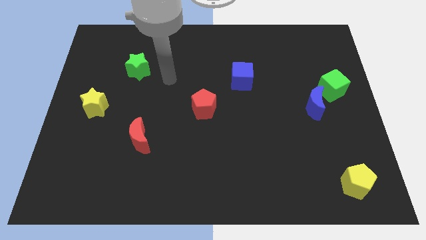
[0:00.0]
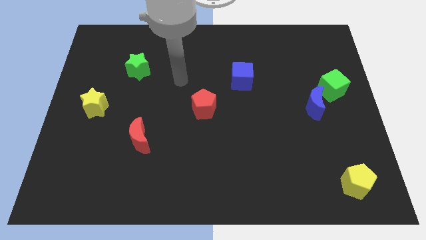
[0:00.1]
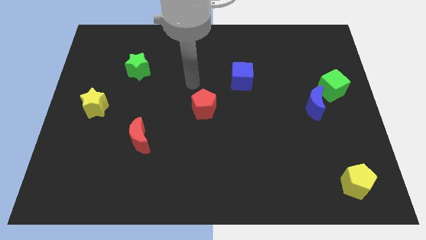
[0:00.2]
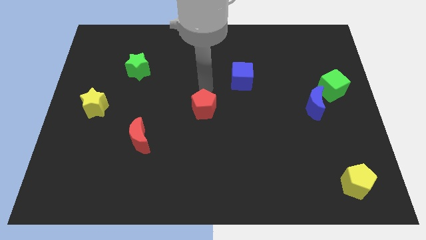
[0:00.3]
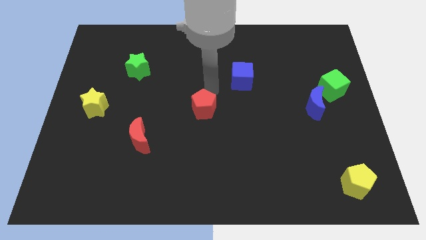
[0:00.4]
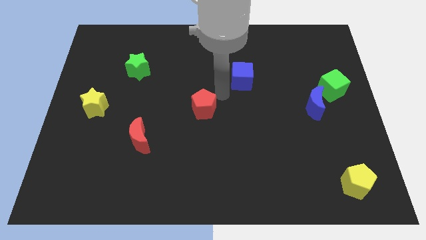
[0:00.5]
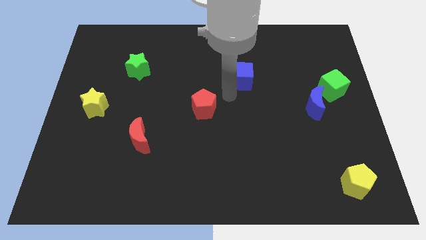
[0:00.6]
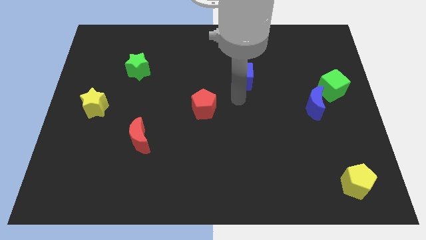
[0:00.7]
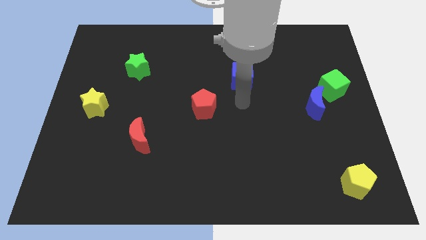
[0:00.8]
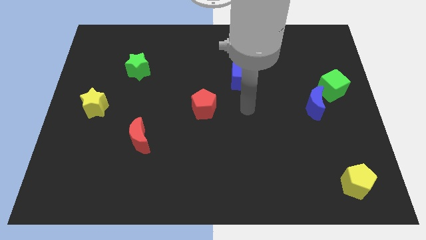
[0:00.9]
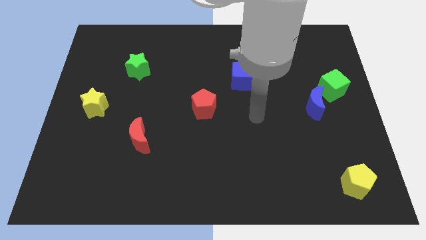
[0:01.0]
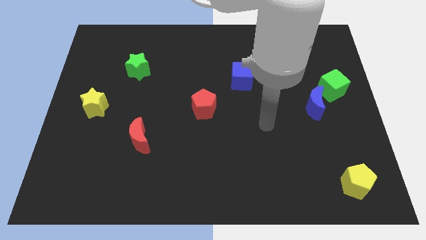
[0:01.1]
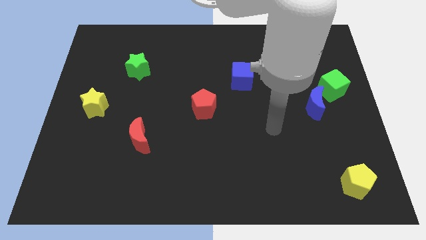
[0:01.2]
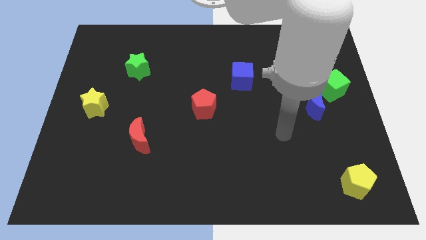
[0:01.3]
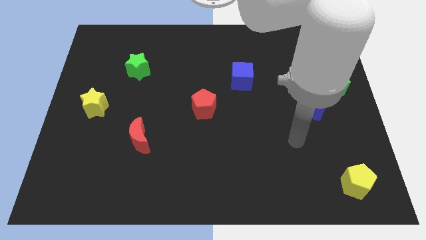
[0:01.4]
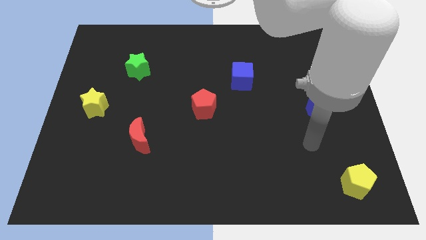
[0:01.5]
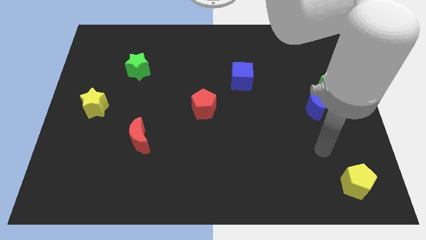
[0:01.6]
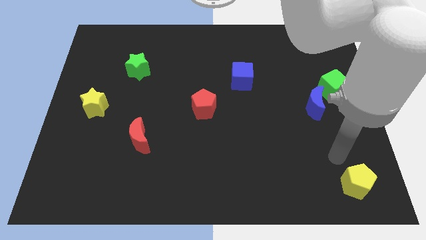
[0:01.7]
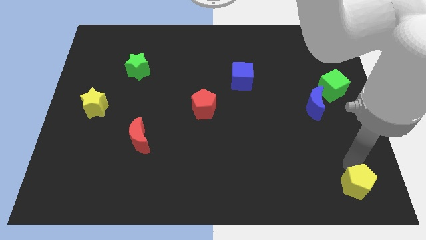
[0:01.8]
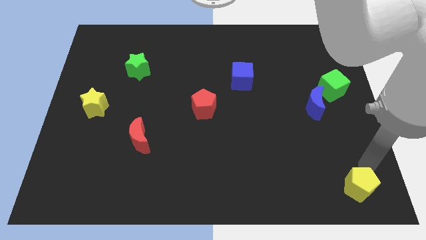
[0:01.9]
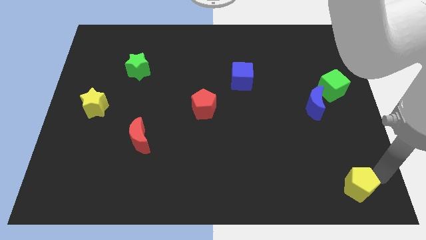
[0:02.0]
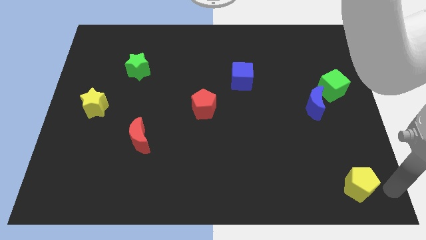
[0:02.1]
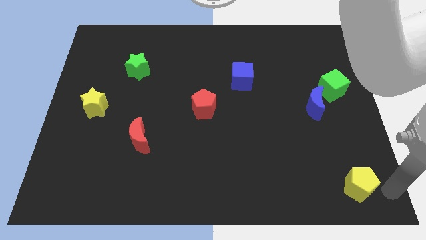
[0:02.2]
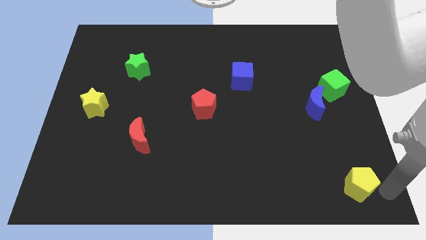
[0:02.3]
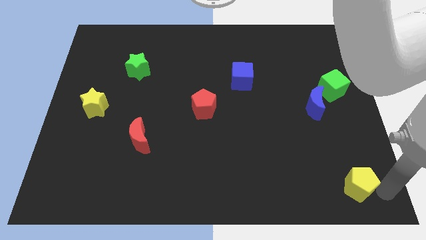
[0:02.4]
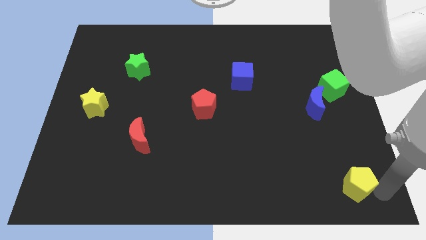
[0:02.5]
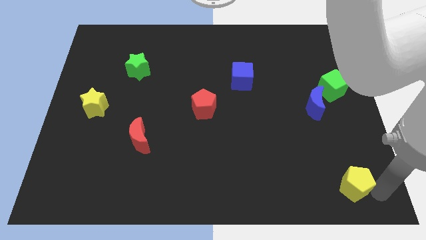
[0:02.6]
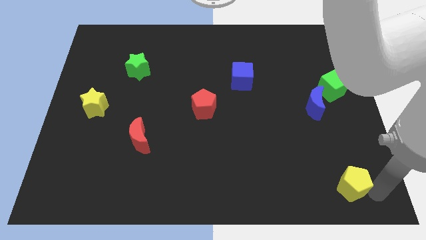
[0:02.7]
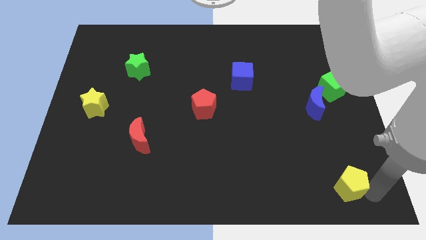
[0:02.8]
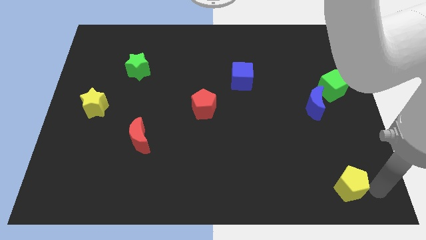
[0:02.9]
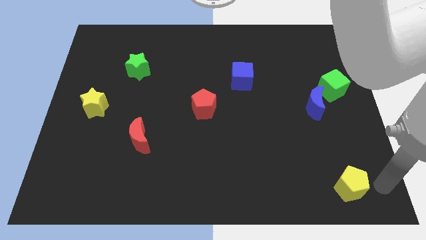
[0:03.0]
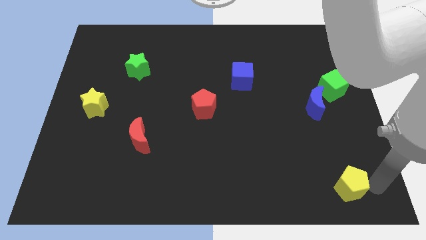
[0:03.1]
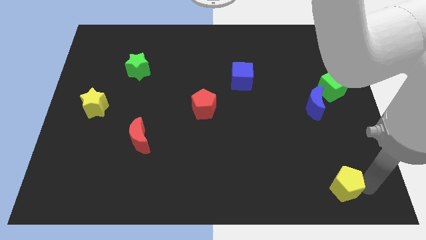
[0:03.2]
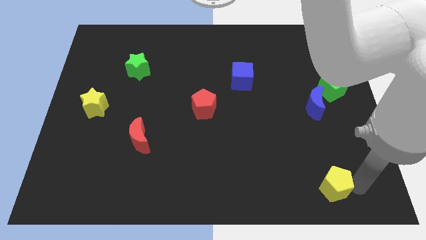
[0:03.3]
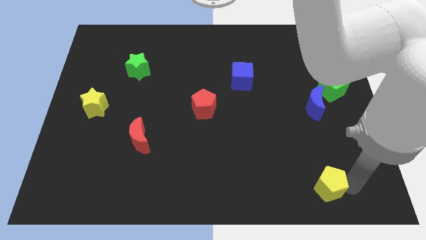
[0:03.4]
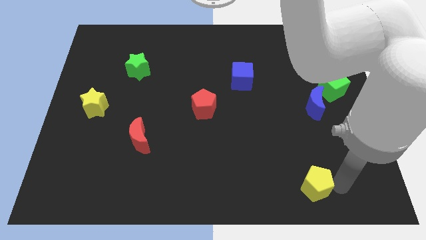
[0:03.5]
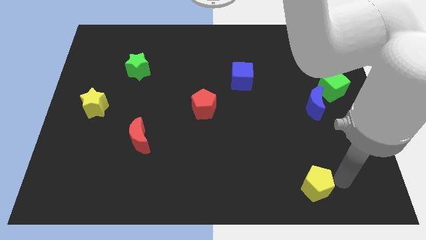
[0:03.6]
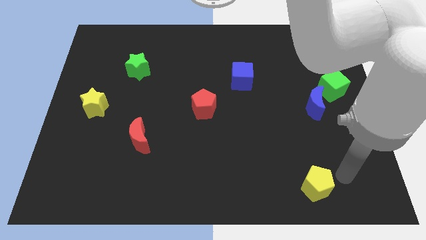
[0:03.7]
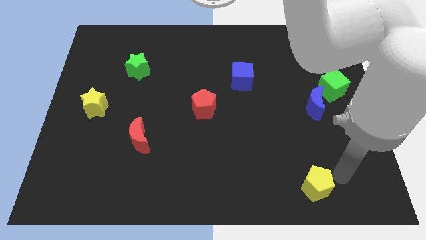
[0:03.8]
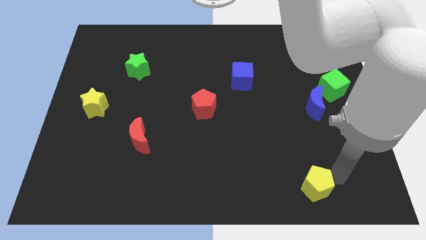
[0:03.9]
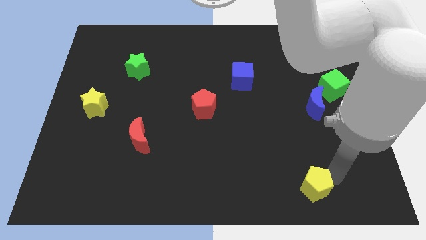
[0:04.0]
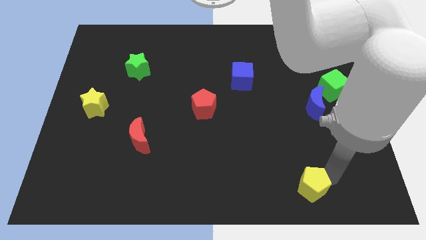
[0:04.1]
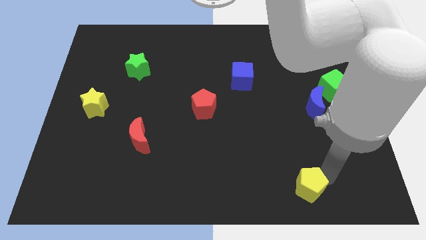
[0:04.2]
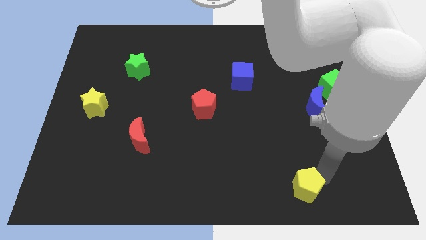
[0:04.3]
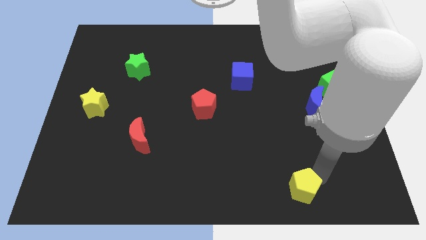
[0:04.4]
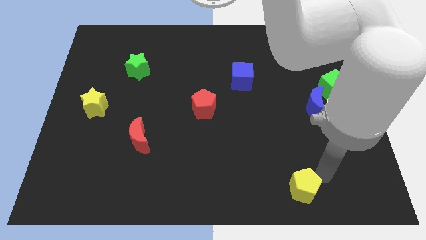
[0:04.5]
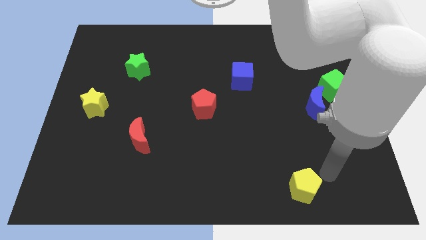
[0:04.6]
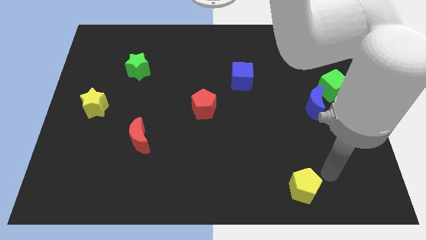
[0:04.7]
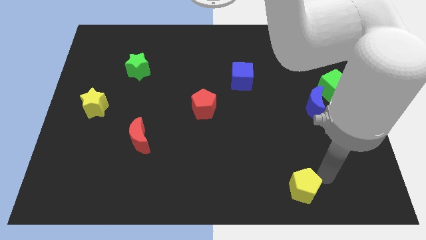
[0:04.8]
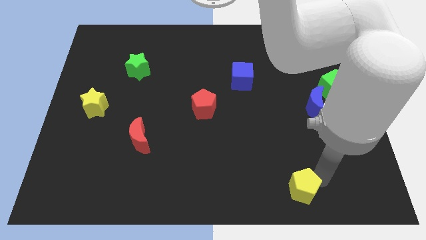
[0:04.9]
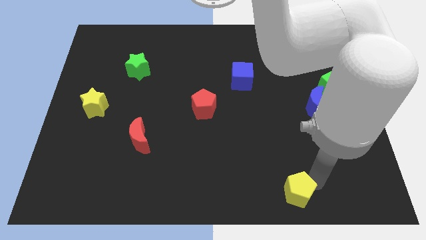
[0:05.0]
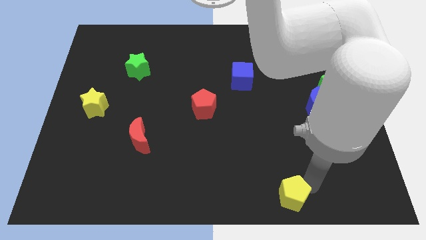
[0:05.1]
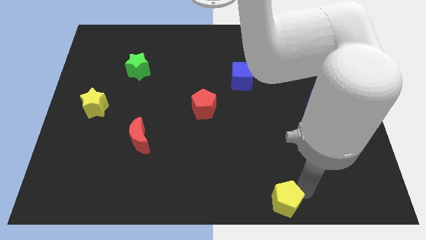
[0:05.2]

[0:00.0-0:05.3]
push the yellow pentagon to the bottom
